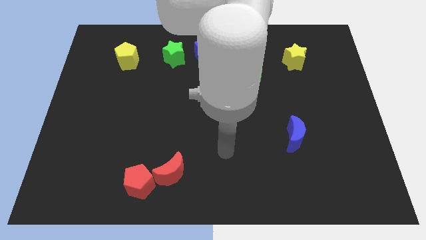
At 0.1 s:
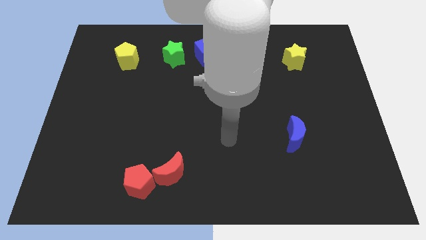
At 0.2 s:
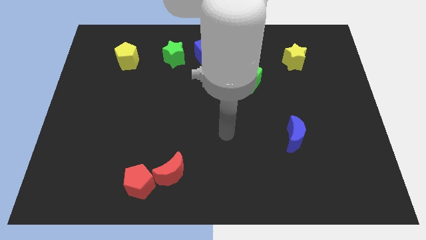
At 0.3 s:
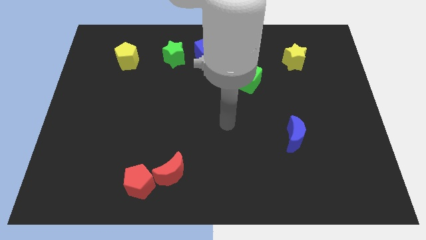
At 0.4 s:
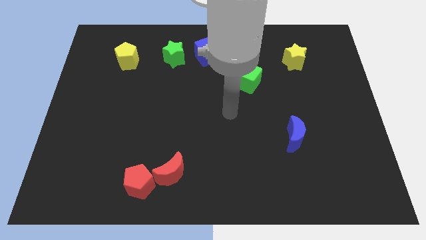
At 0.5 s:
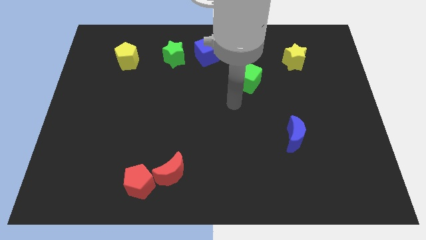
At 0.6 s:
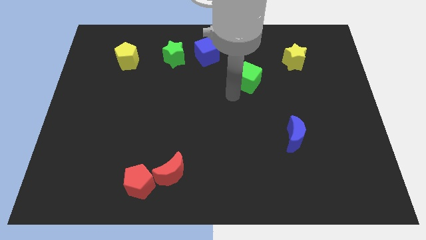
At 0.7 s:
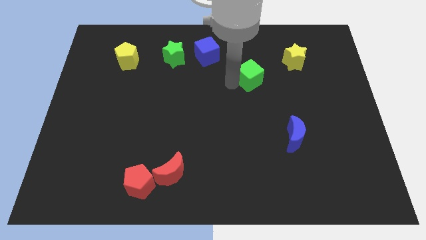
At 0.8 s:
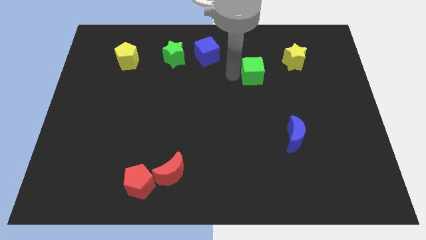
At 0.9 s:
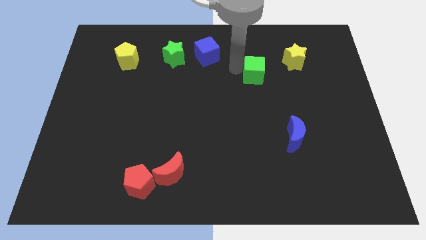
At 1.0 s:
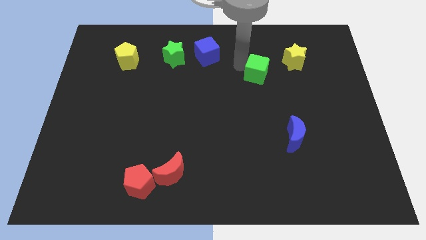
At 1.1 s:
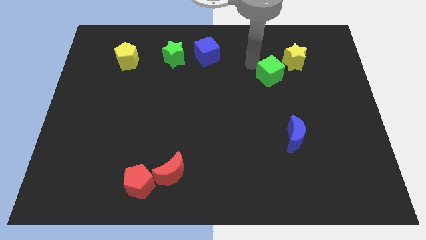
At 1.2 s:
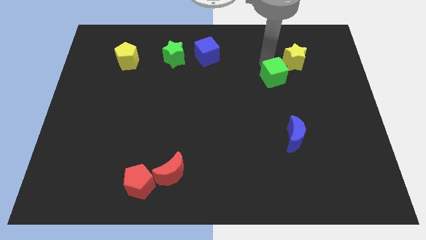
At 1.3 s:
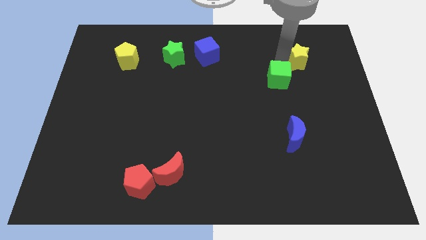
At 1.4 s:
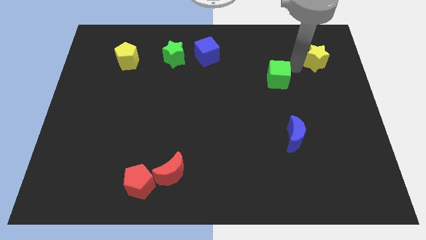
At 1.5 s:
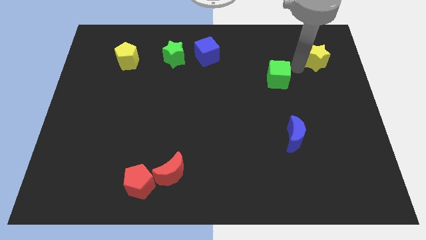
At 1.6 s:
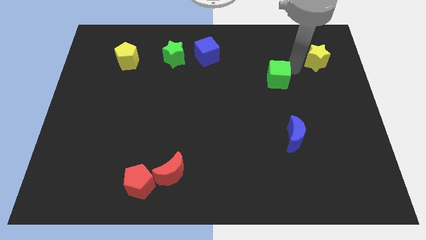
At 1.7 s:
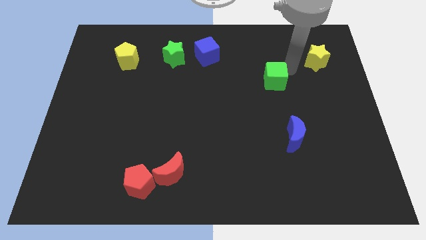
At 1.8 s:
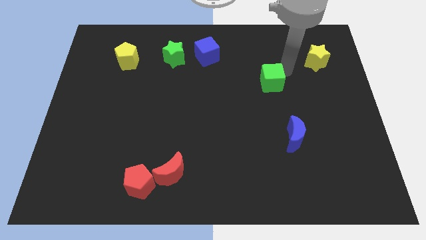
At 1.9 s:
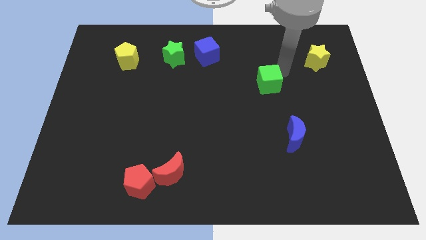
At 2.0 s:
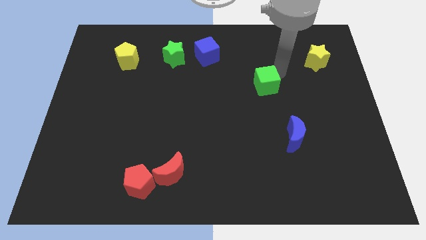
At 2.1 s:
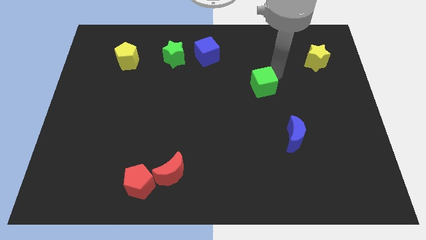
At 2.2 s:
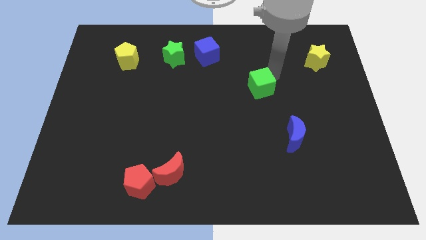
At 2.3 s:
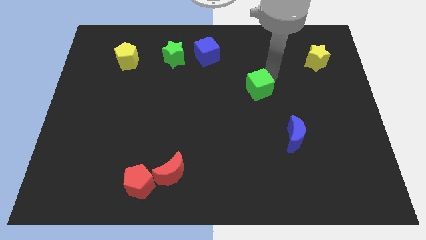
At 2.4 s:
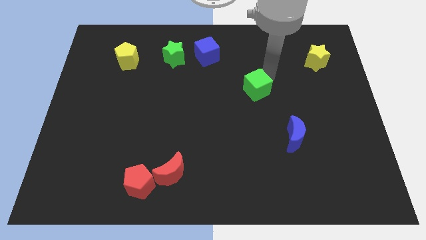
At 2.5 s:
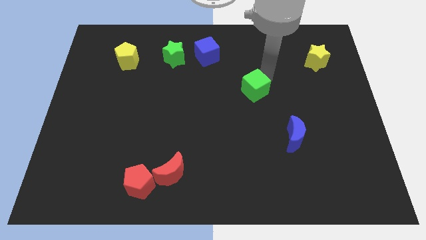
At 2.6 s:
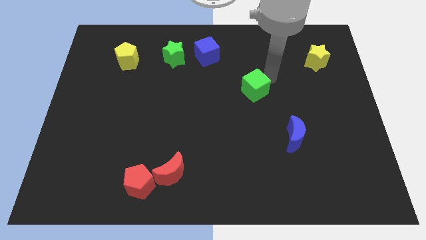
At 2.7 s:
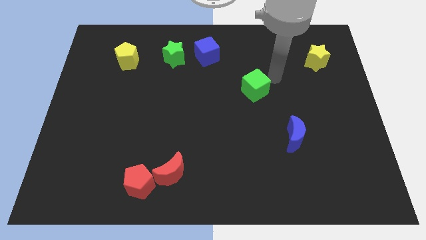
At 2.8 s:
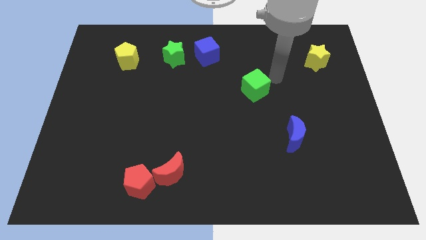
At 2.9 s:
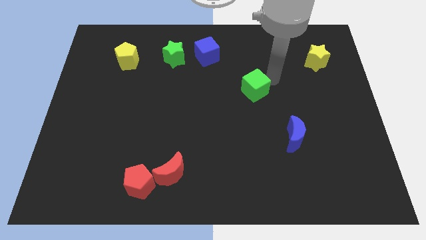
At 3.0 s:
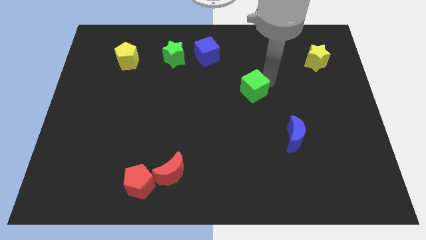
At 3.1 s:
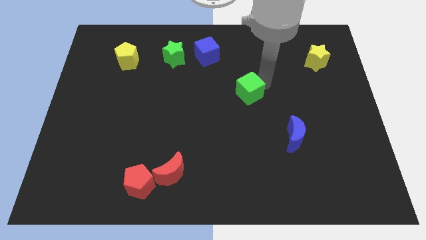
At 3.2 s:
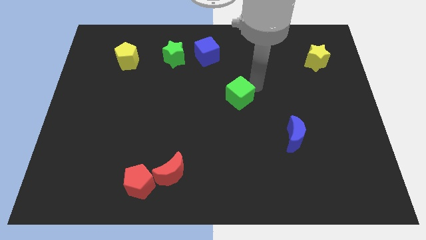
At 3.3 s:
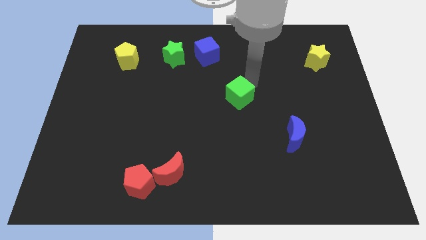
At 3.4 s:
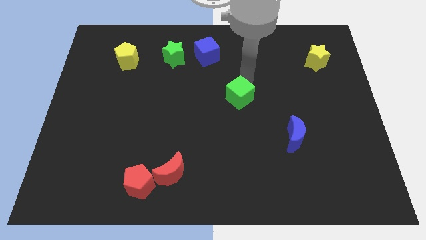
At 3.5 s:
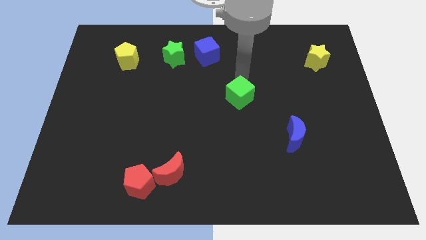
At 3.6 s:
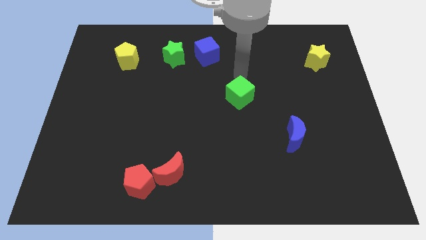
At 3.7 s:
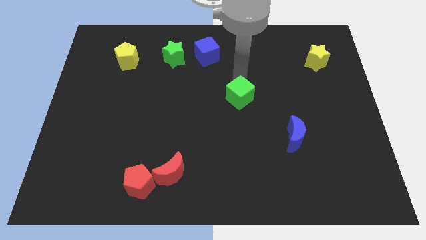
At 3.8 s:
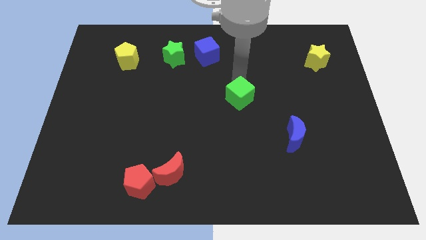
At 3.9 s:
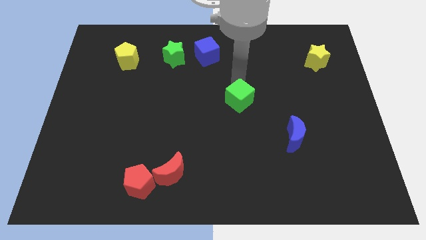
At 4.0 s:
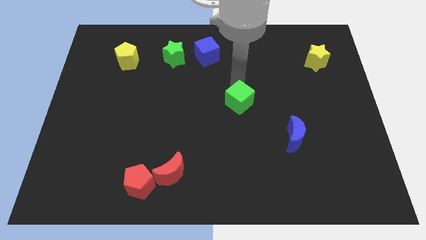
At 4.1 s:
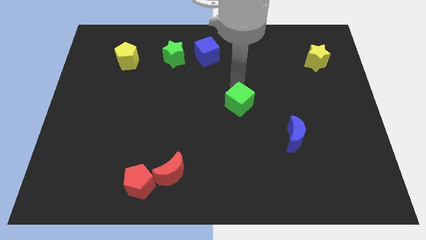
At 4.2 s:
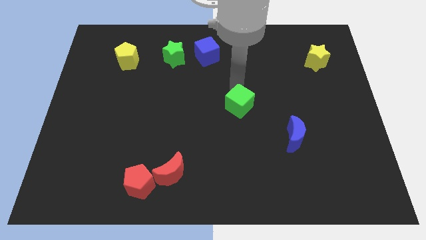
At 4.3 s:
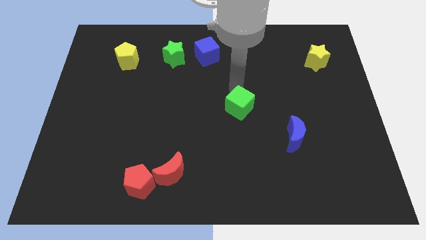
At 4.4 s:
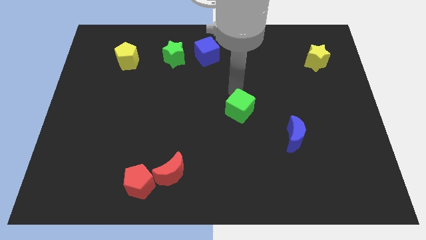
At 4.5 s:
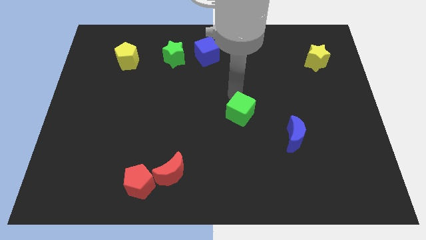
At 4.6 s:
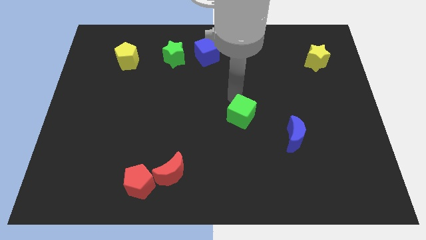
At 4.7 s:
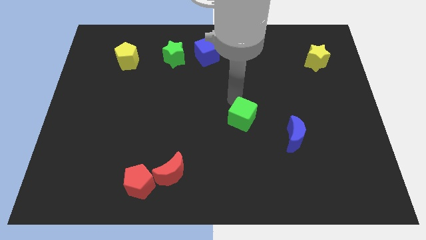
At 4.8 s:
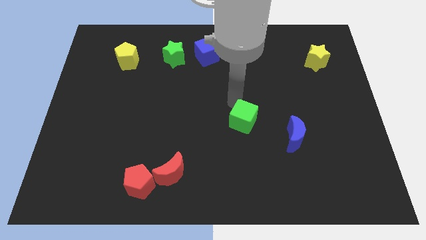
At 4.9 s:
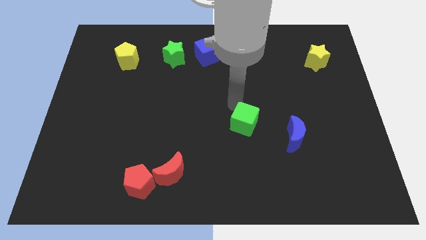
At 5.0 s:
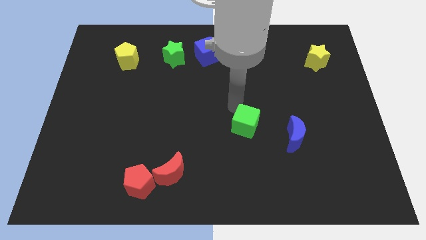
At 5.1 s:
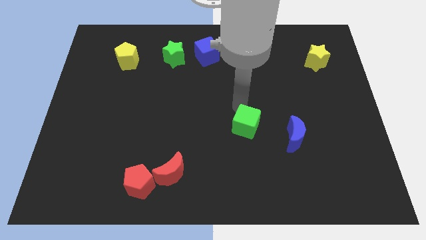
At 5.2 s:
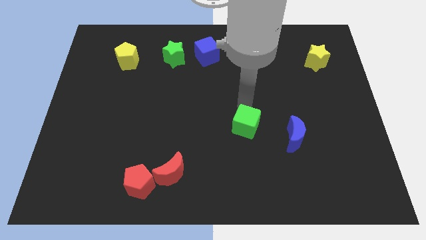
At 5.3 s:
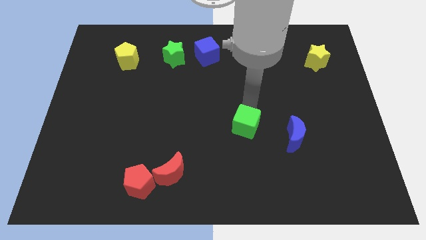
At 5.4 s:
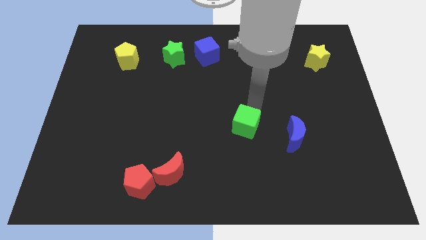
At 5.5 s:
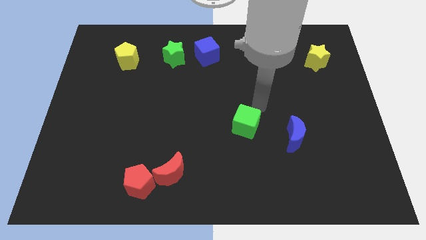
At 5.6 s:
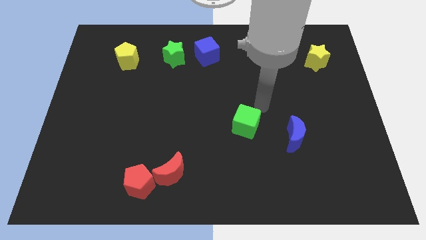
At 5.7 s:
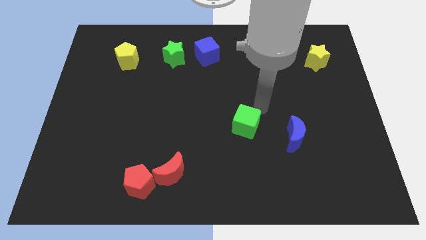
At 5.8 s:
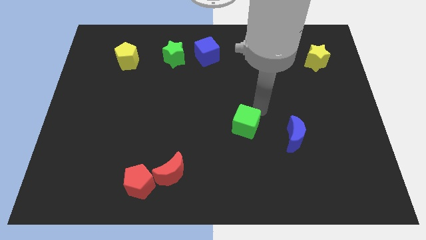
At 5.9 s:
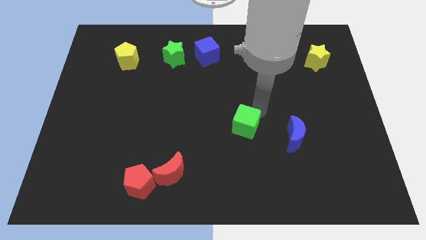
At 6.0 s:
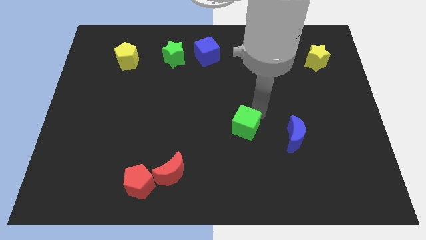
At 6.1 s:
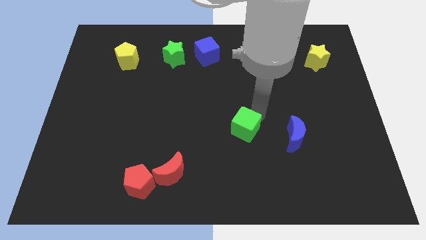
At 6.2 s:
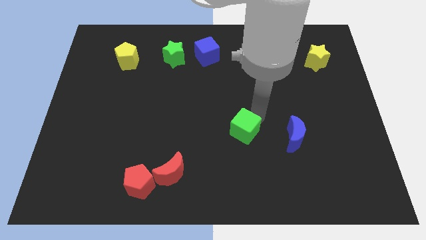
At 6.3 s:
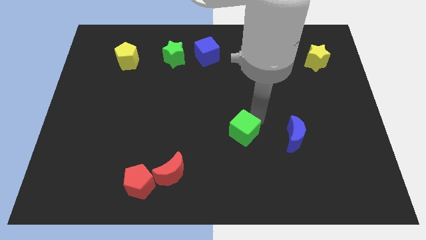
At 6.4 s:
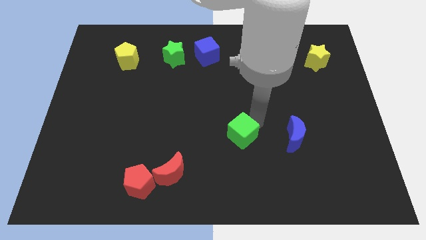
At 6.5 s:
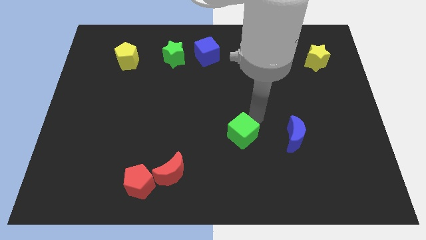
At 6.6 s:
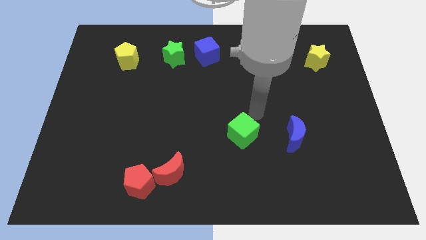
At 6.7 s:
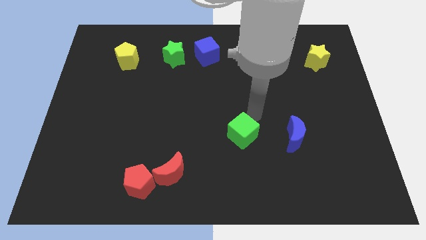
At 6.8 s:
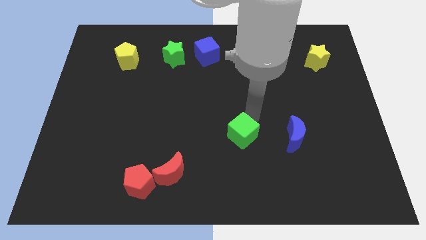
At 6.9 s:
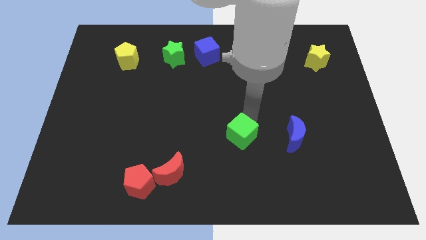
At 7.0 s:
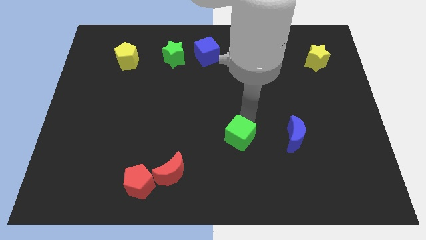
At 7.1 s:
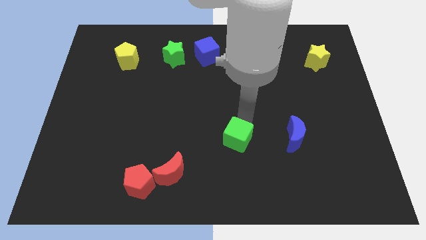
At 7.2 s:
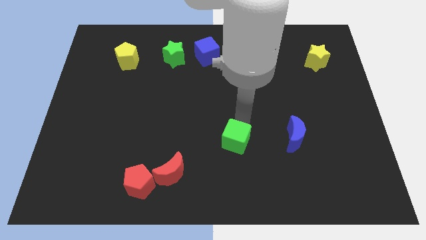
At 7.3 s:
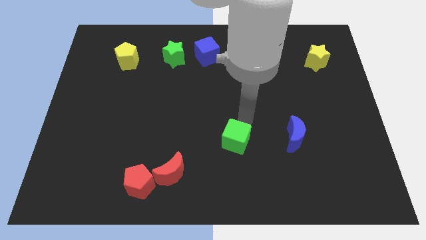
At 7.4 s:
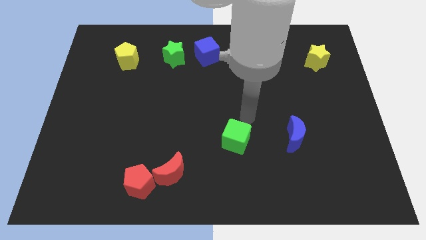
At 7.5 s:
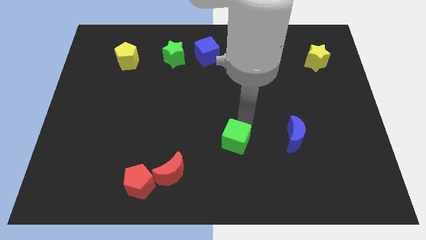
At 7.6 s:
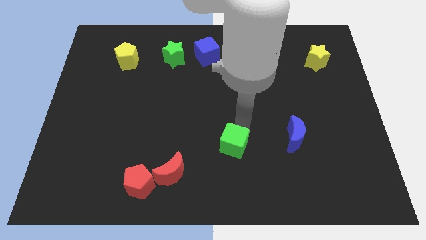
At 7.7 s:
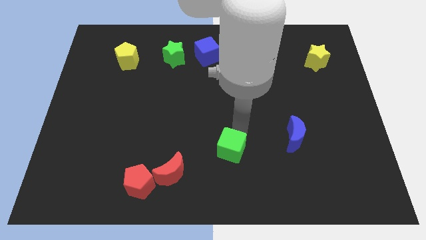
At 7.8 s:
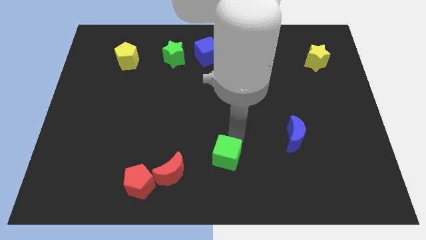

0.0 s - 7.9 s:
push the green cube to the bottom
